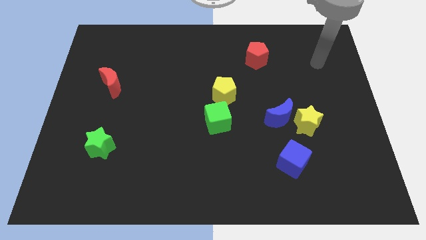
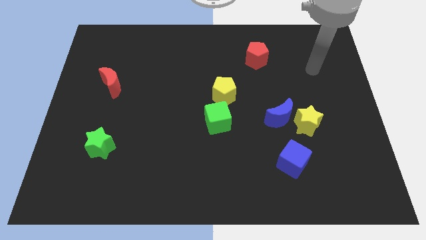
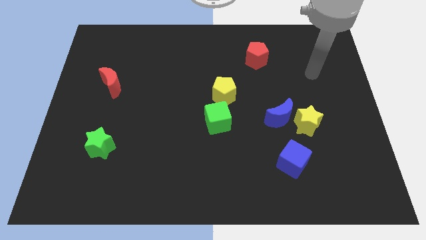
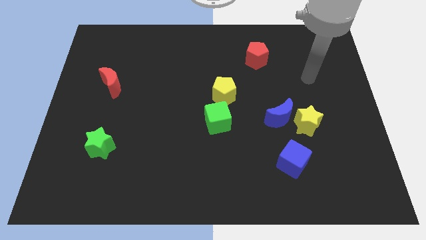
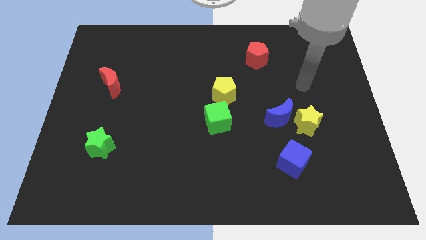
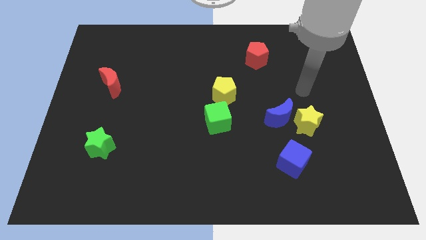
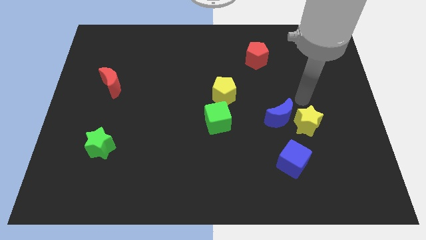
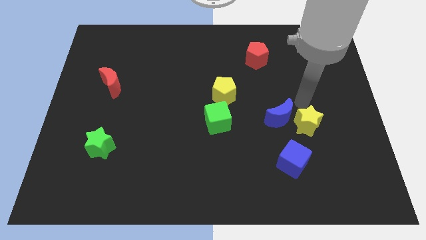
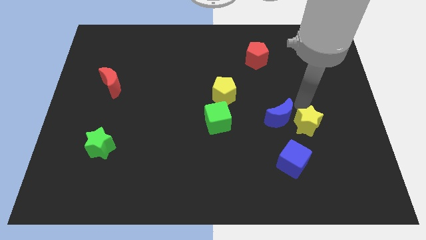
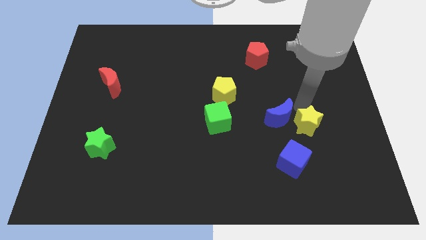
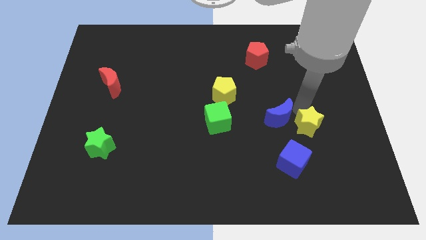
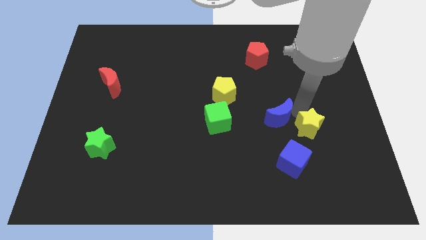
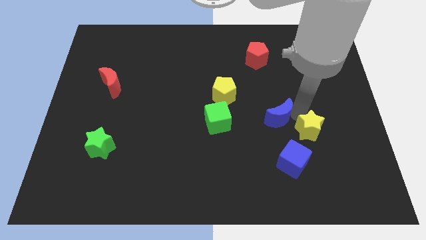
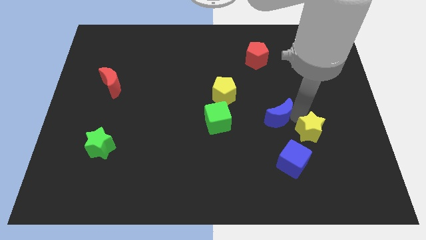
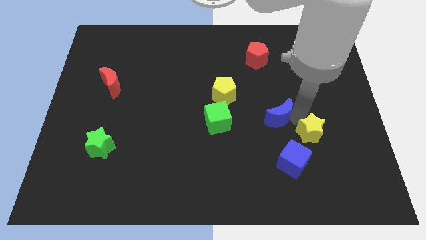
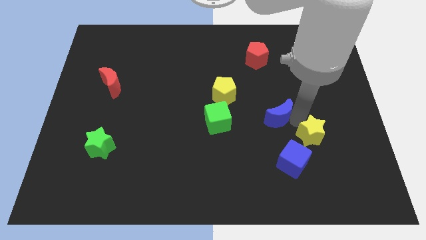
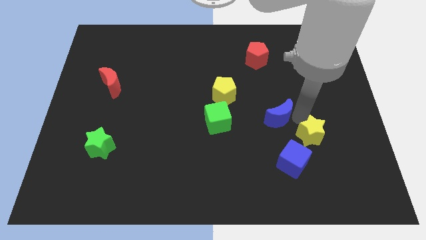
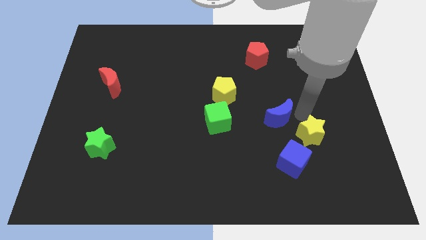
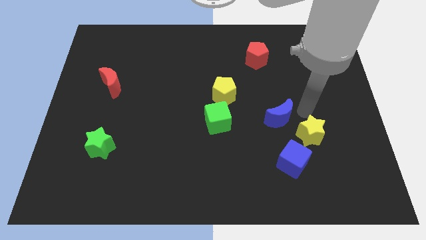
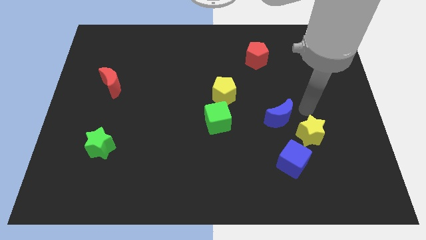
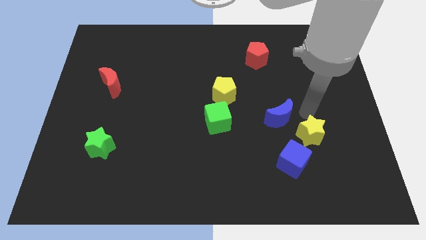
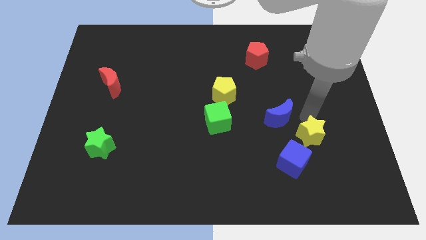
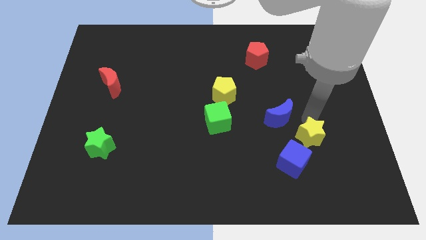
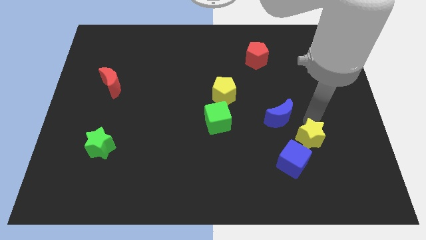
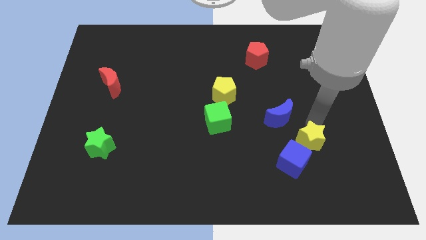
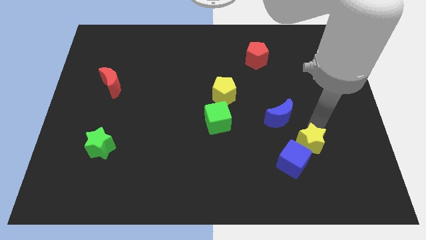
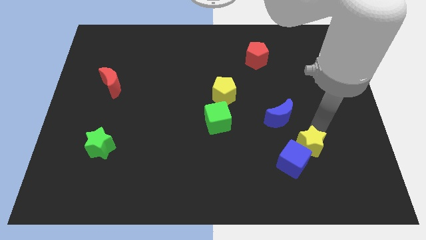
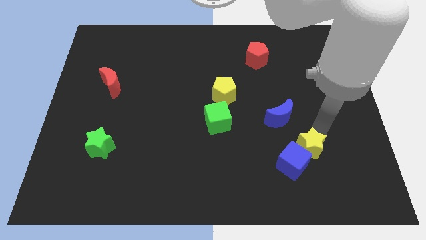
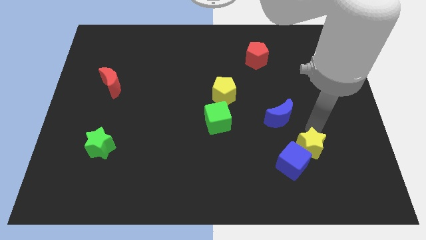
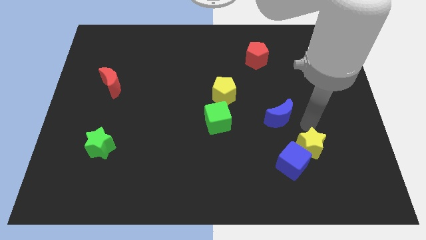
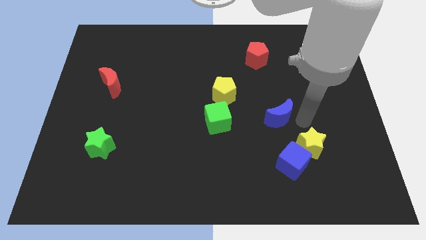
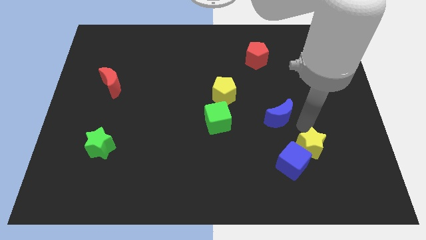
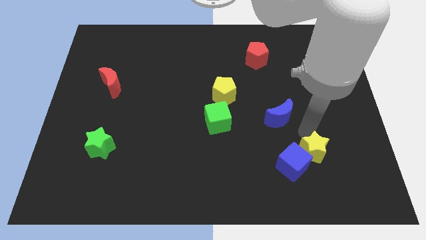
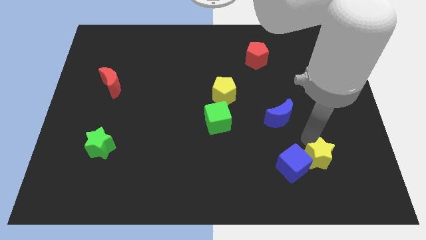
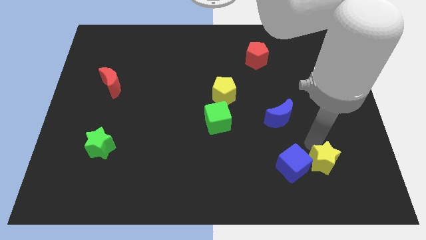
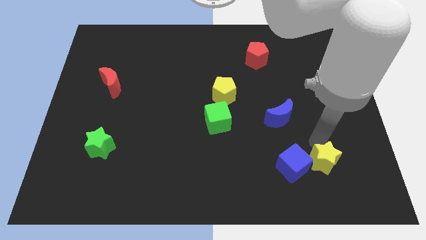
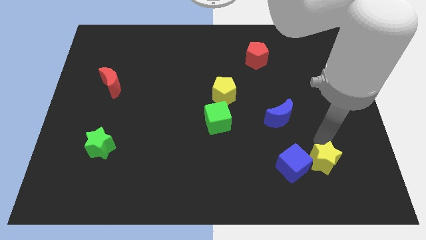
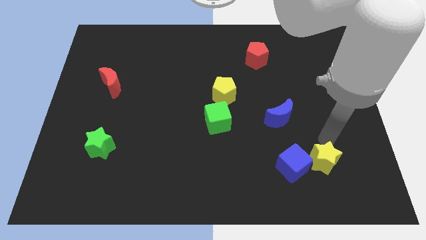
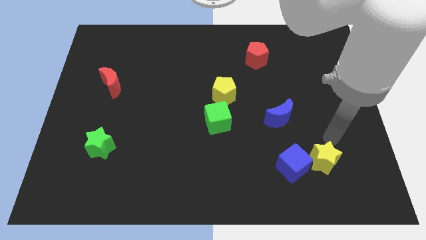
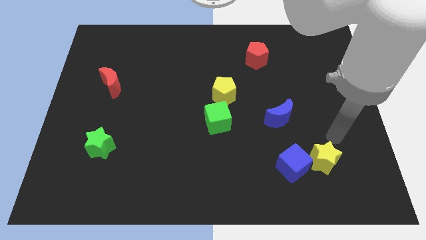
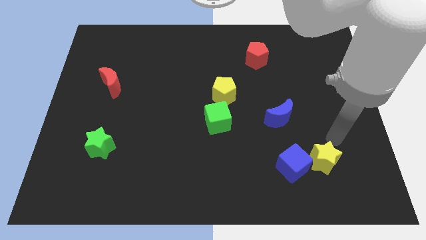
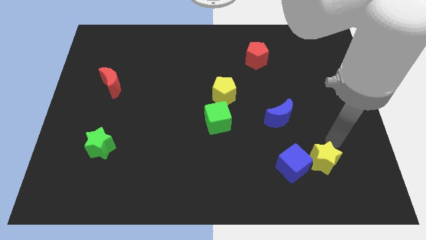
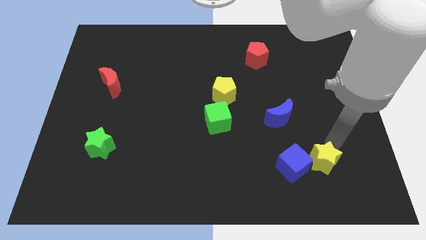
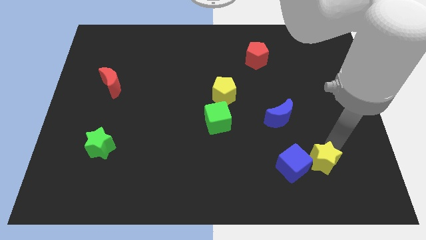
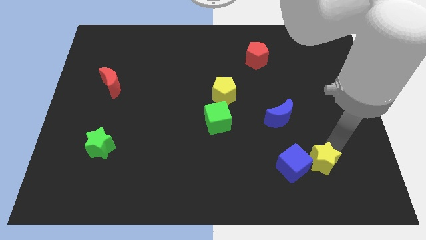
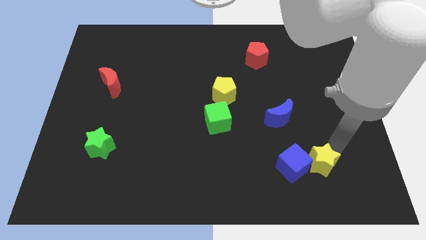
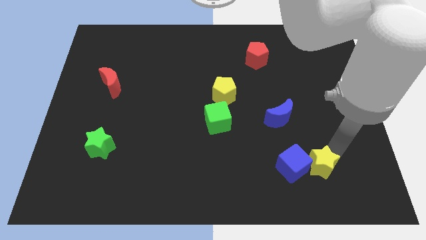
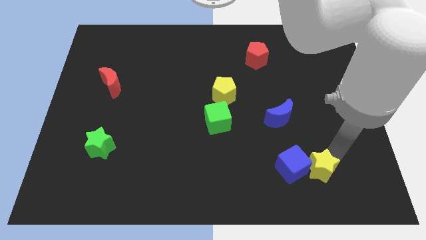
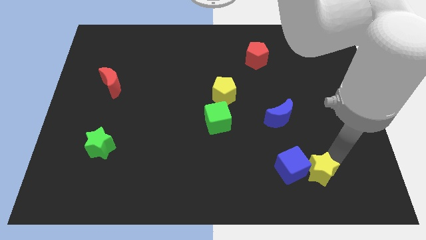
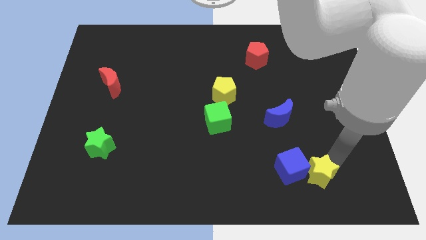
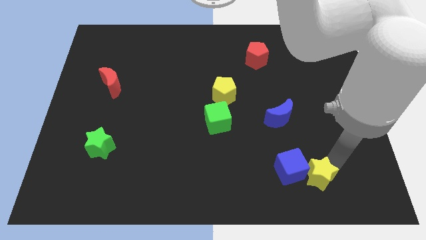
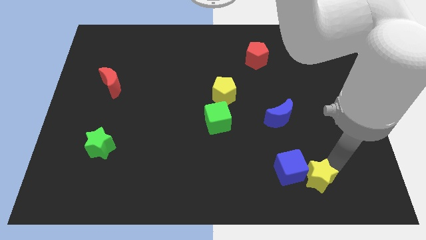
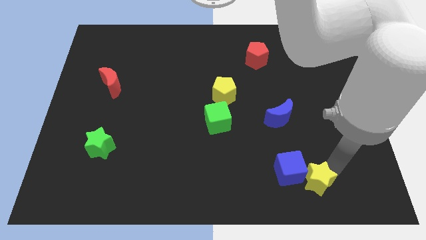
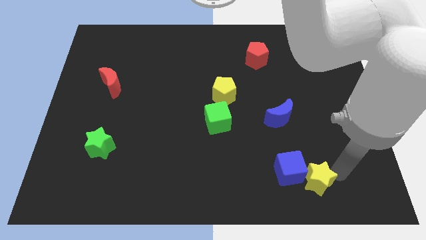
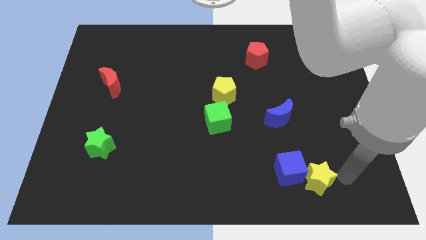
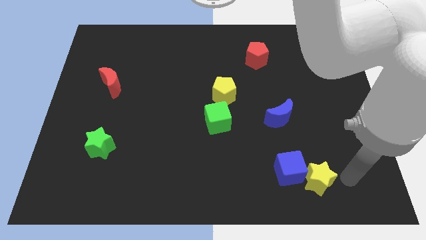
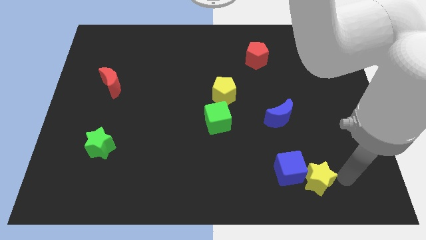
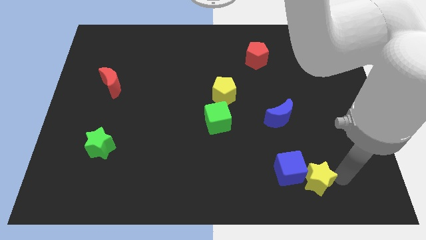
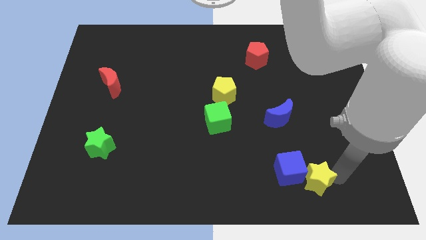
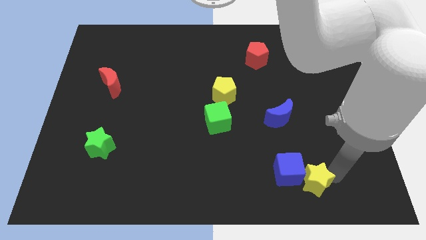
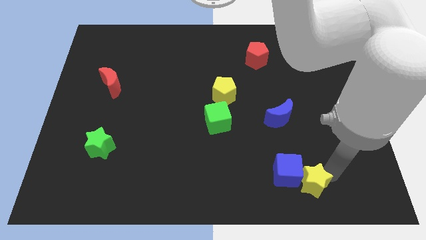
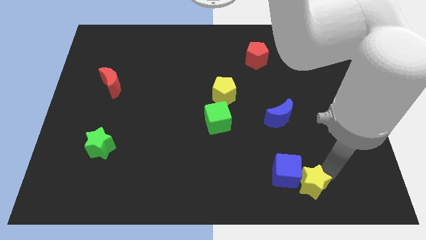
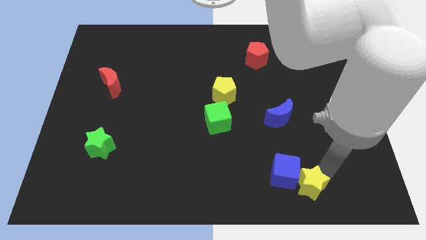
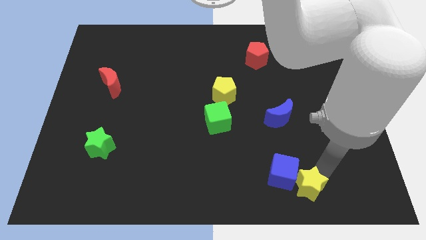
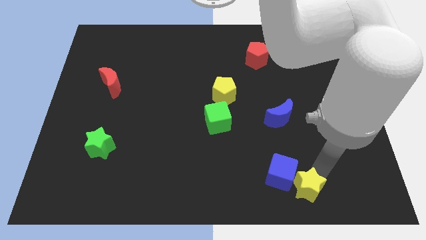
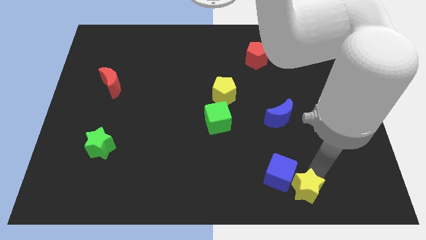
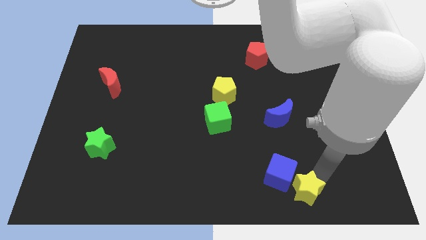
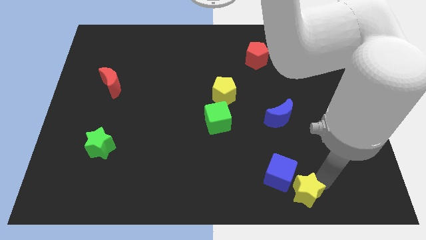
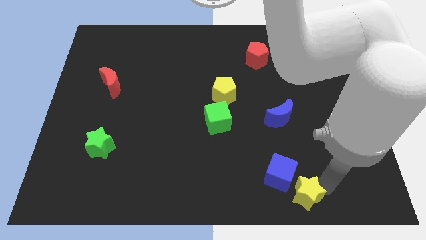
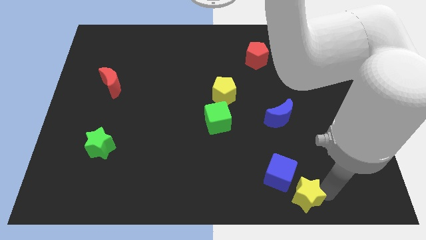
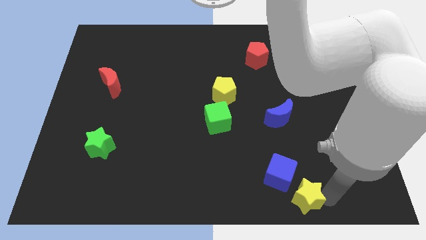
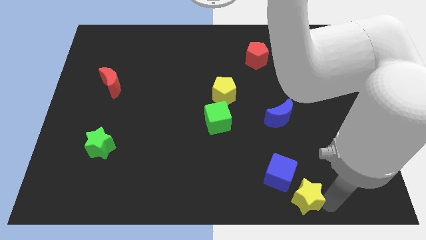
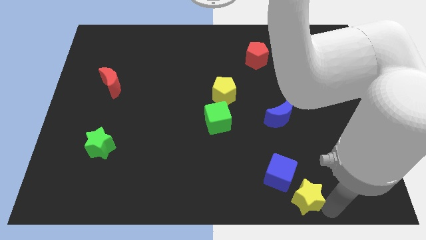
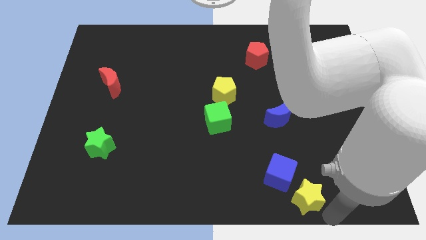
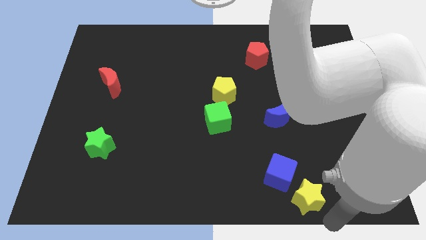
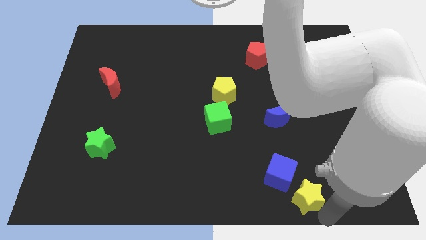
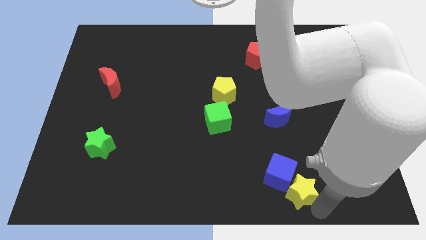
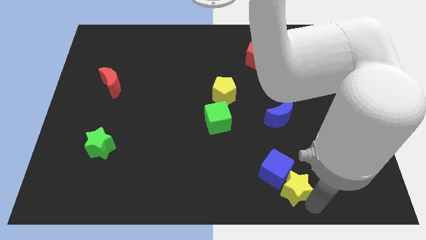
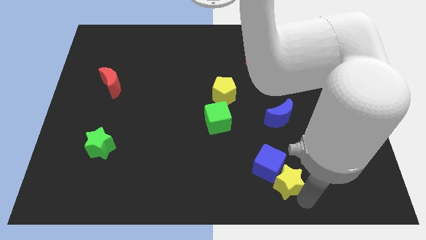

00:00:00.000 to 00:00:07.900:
push the yellow star below the blue moon
